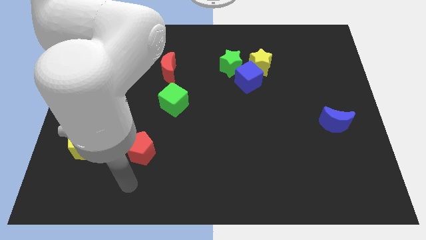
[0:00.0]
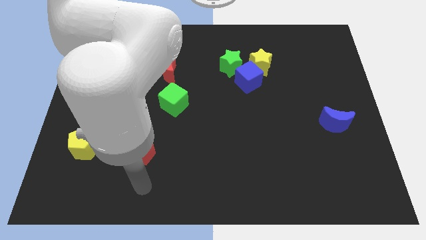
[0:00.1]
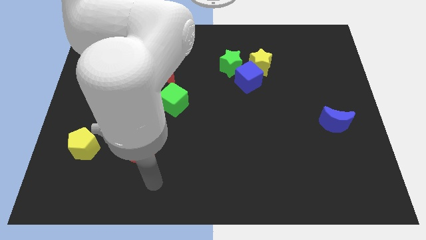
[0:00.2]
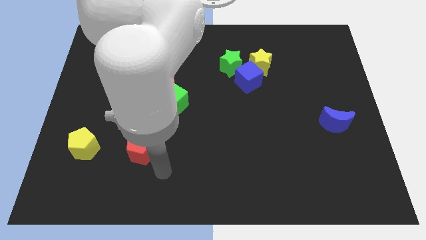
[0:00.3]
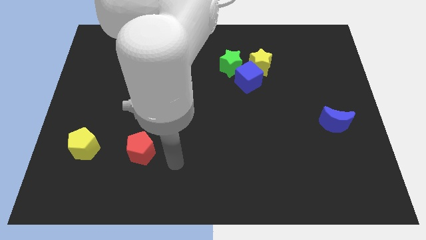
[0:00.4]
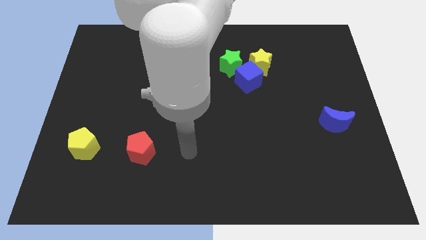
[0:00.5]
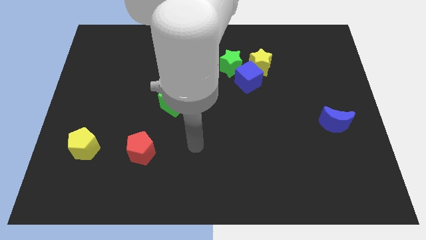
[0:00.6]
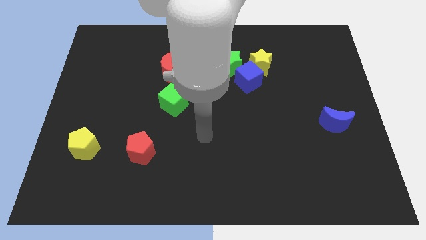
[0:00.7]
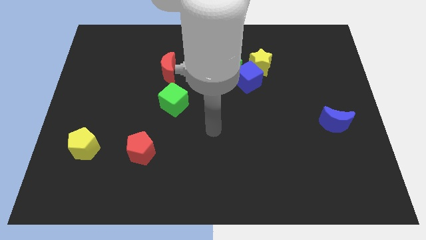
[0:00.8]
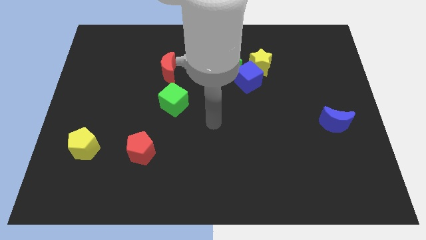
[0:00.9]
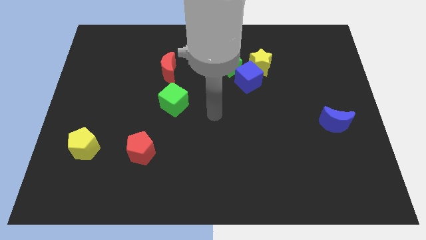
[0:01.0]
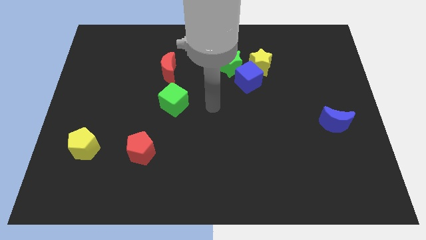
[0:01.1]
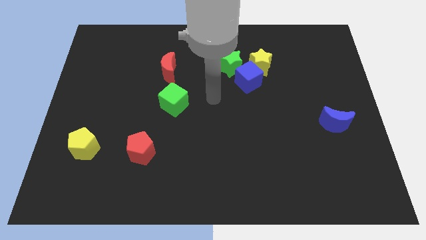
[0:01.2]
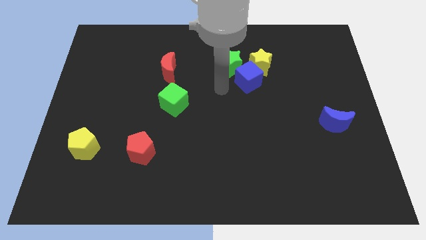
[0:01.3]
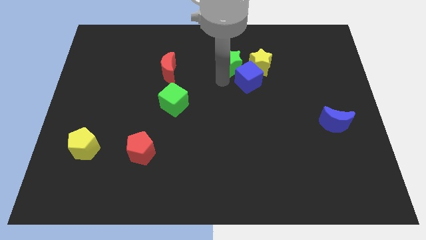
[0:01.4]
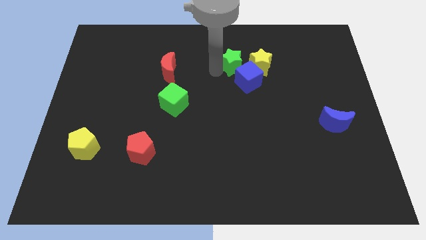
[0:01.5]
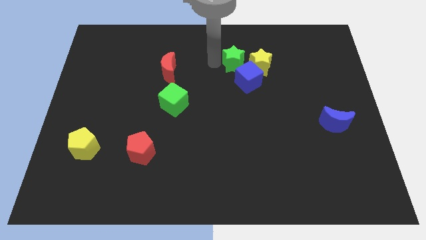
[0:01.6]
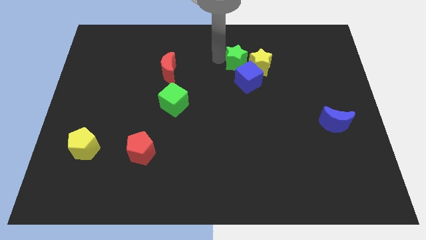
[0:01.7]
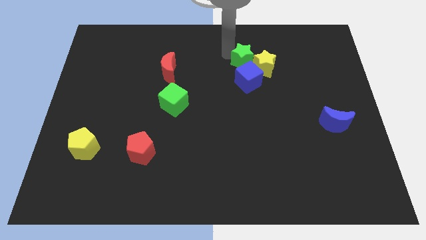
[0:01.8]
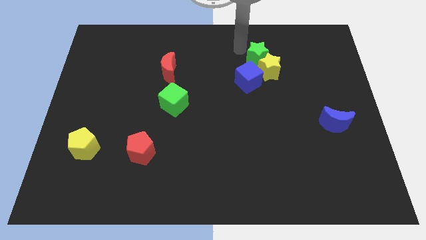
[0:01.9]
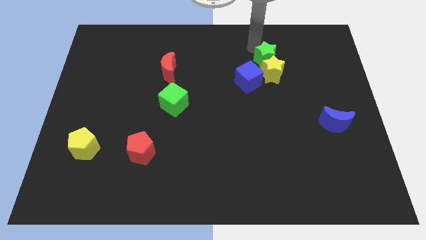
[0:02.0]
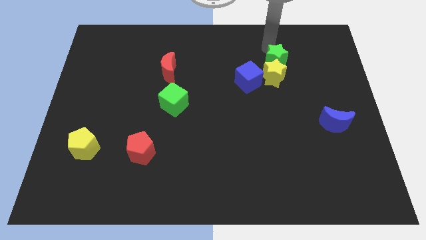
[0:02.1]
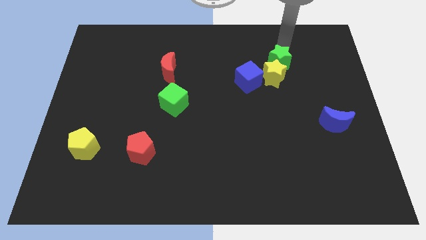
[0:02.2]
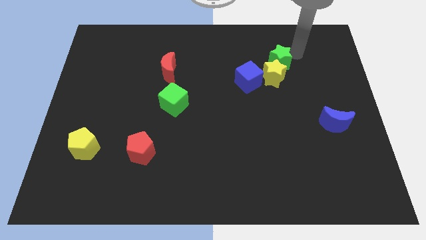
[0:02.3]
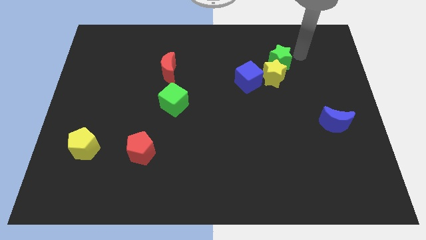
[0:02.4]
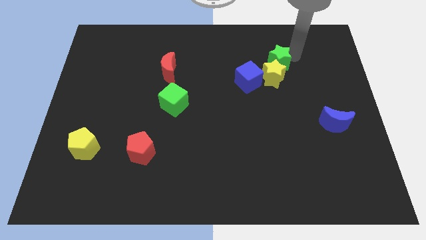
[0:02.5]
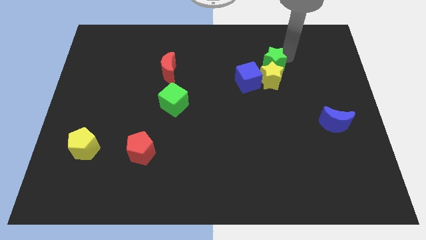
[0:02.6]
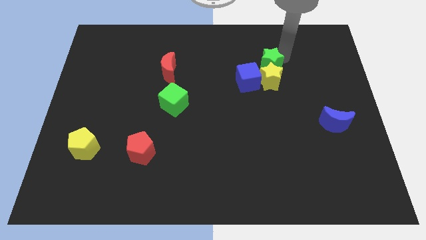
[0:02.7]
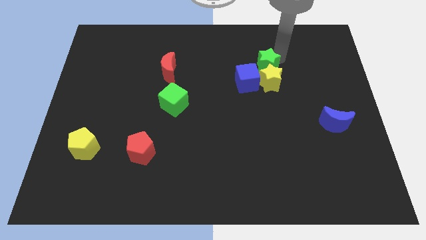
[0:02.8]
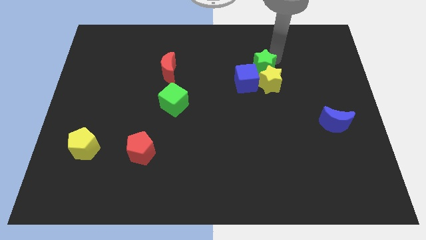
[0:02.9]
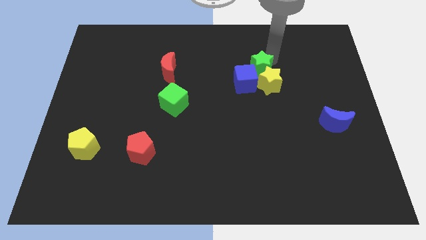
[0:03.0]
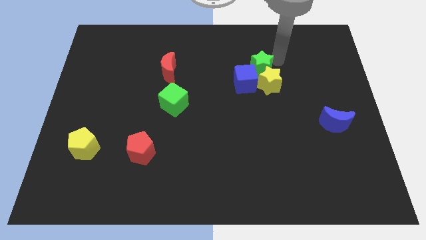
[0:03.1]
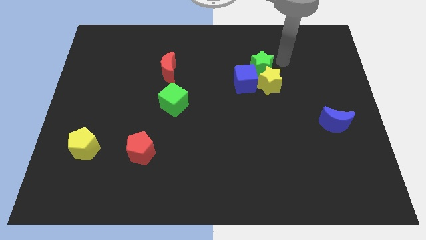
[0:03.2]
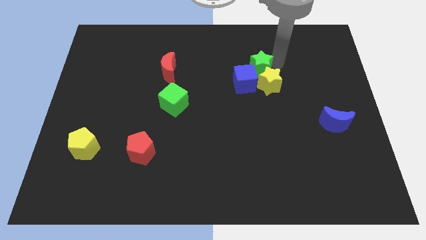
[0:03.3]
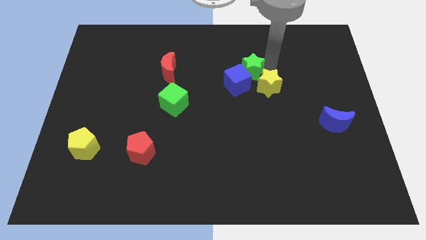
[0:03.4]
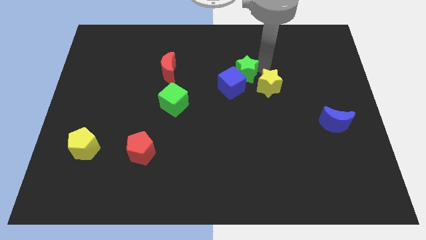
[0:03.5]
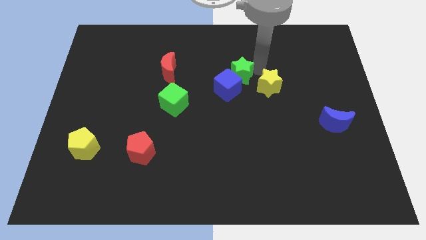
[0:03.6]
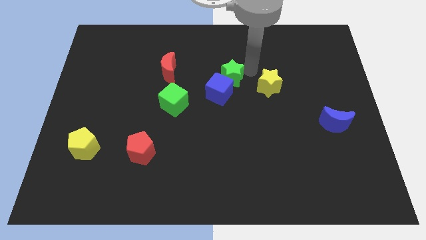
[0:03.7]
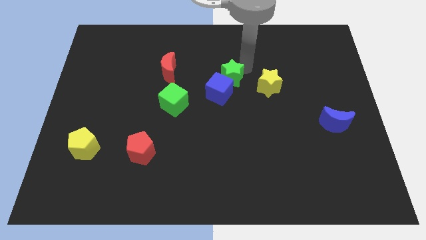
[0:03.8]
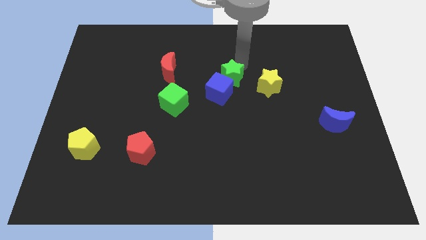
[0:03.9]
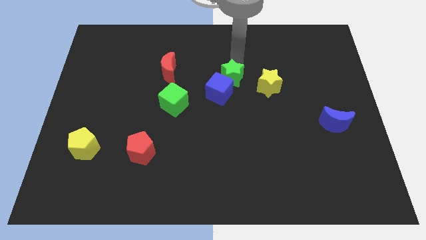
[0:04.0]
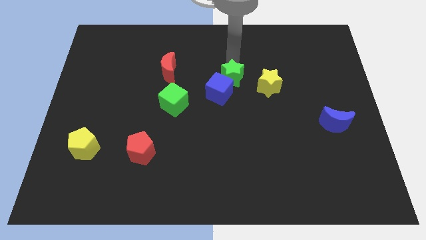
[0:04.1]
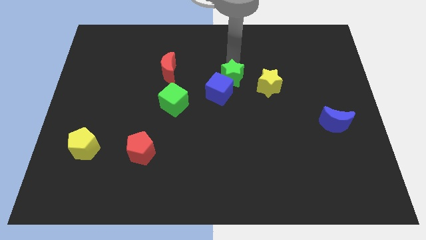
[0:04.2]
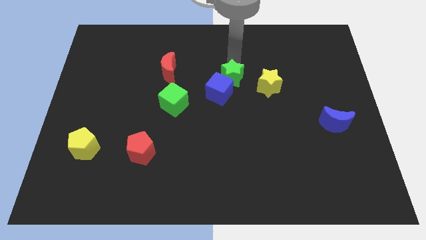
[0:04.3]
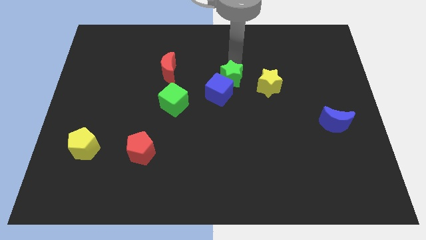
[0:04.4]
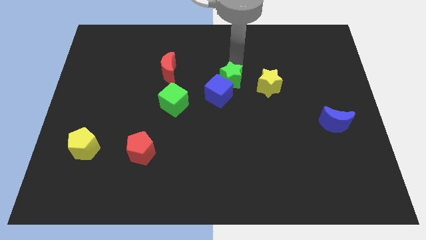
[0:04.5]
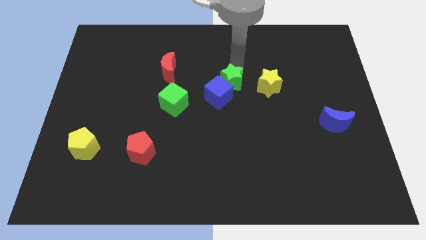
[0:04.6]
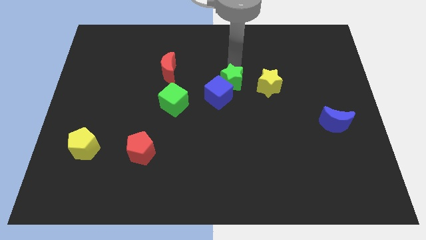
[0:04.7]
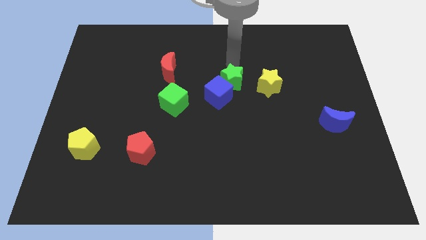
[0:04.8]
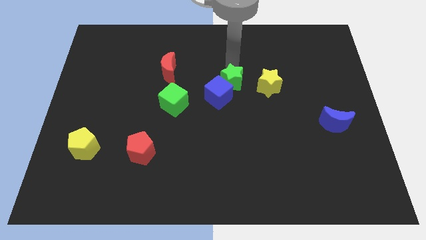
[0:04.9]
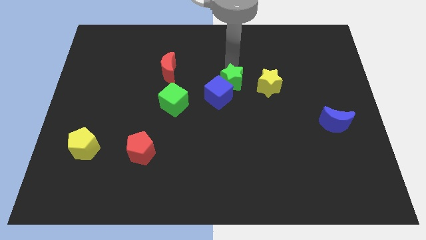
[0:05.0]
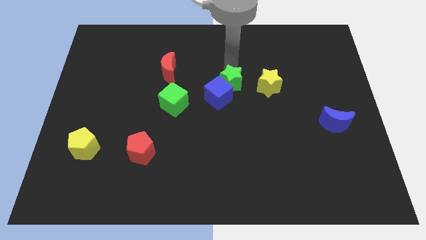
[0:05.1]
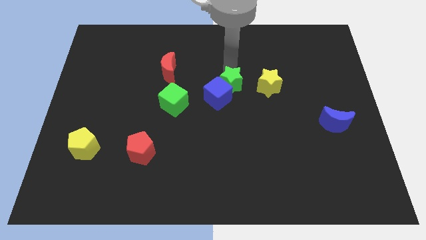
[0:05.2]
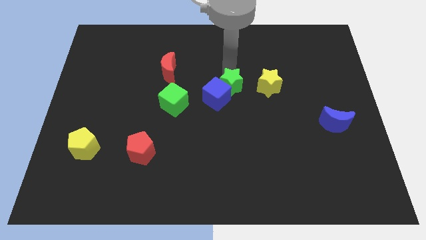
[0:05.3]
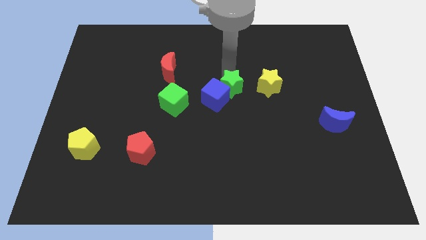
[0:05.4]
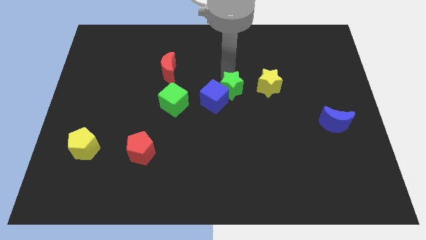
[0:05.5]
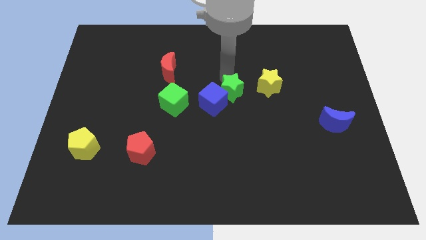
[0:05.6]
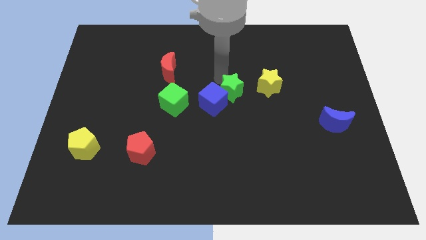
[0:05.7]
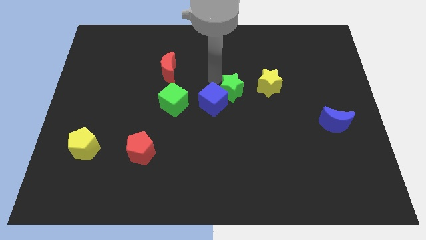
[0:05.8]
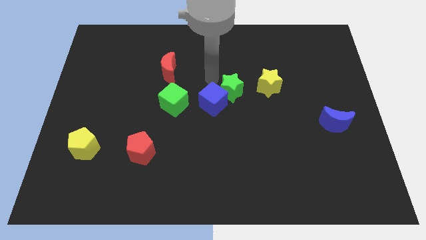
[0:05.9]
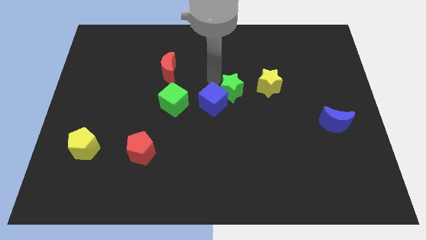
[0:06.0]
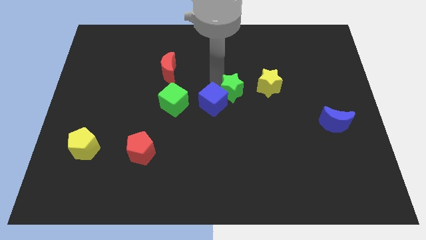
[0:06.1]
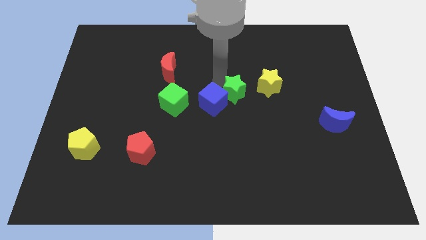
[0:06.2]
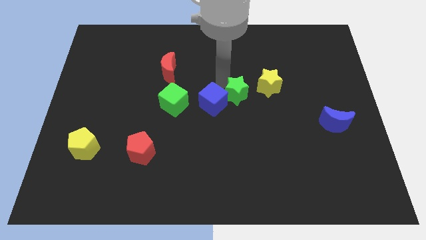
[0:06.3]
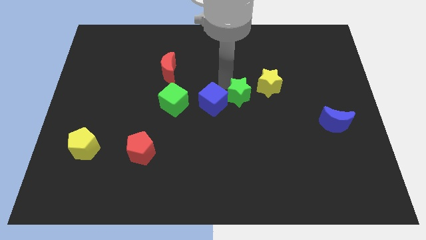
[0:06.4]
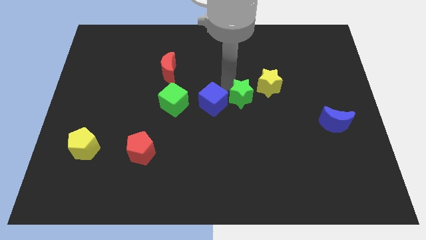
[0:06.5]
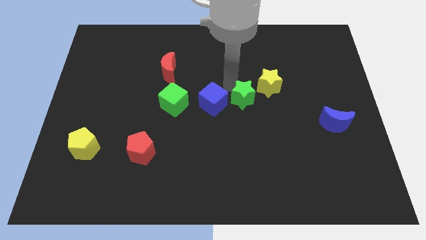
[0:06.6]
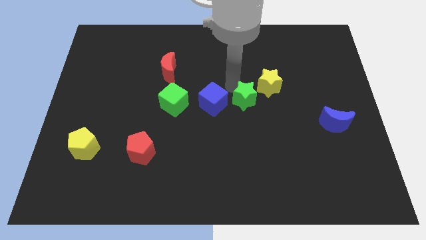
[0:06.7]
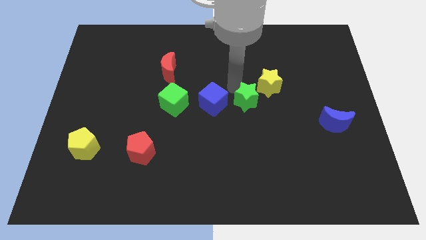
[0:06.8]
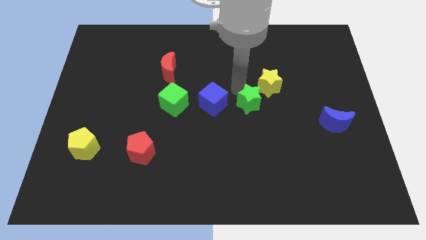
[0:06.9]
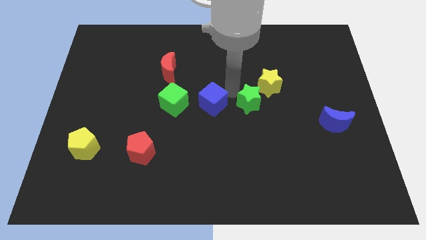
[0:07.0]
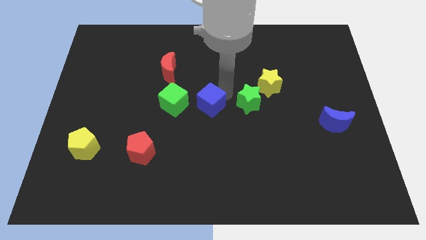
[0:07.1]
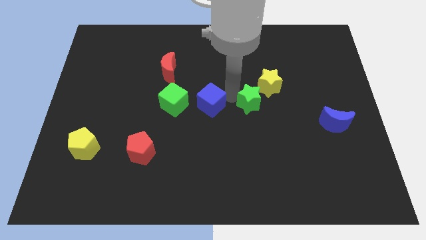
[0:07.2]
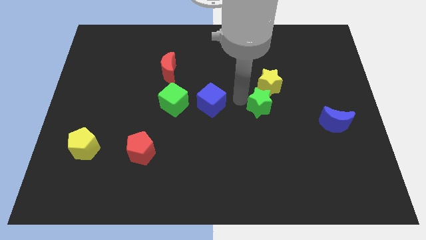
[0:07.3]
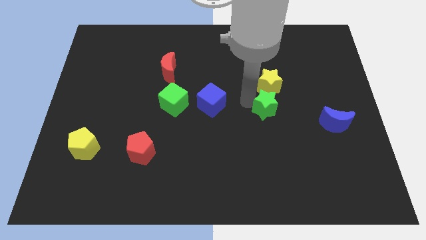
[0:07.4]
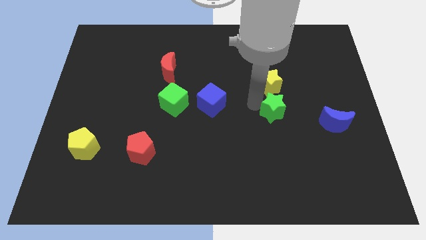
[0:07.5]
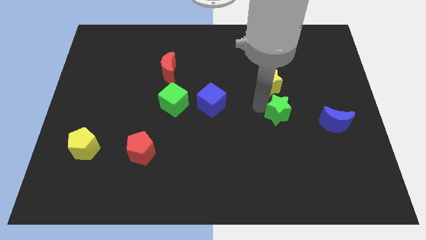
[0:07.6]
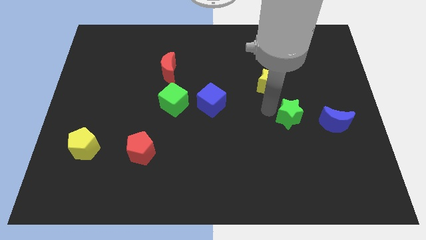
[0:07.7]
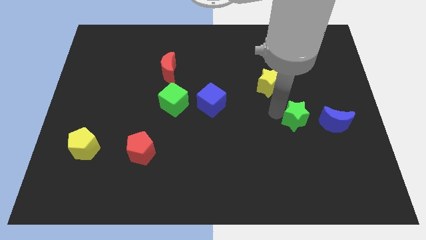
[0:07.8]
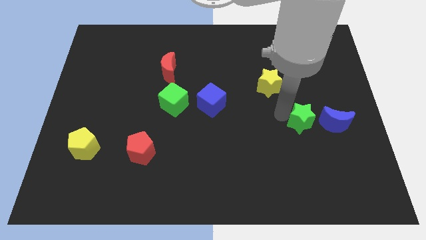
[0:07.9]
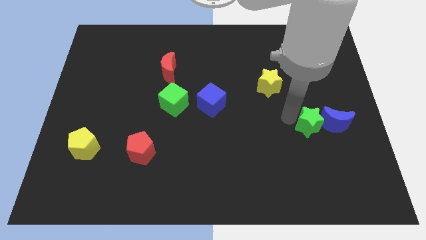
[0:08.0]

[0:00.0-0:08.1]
slide the green star close to the blue moon

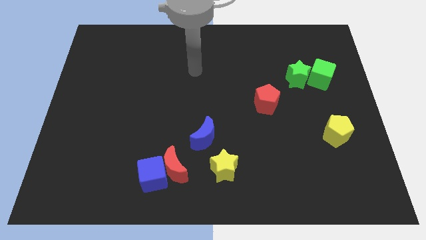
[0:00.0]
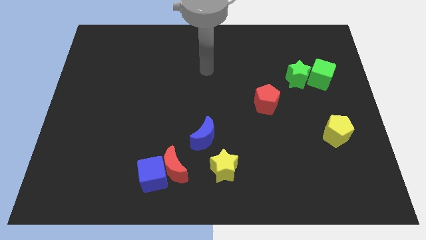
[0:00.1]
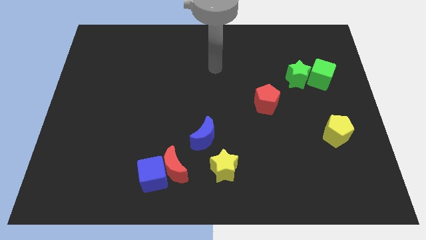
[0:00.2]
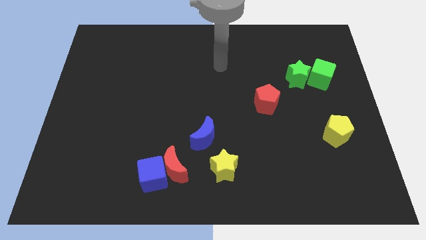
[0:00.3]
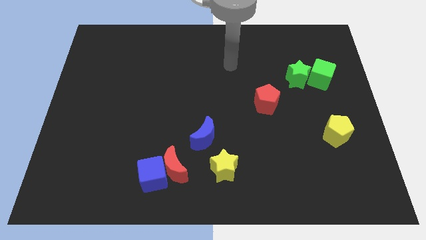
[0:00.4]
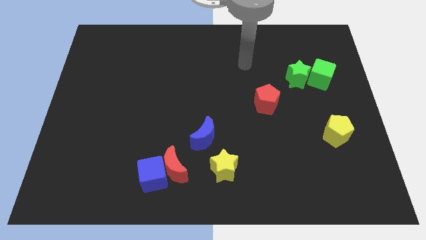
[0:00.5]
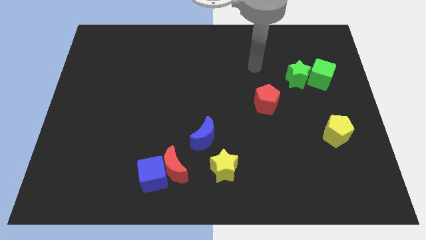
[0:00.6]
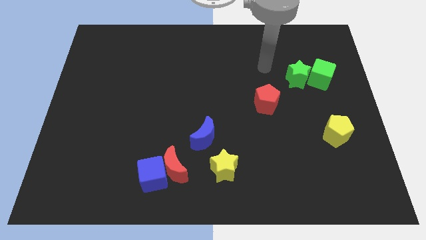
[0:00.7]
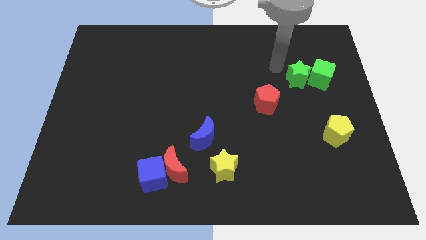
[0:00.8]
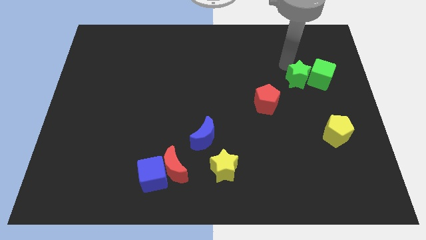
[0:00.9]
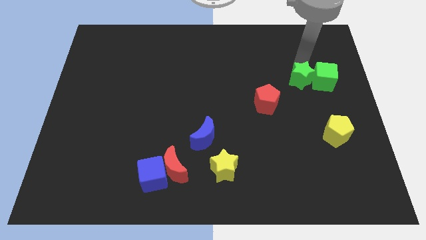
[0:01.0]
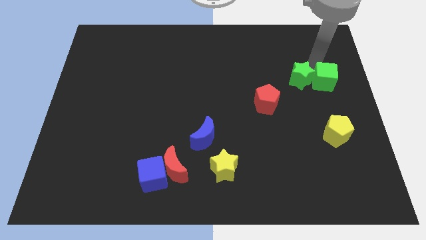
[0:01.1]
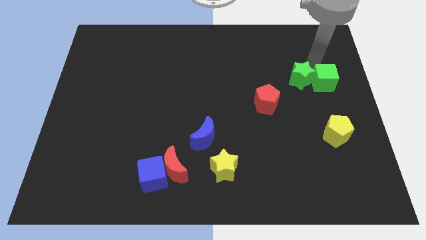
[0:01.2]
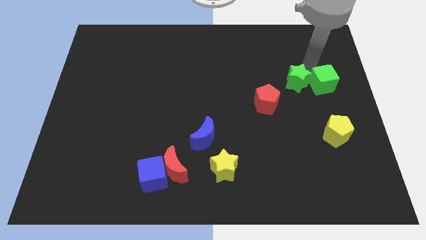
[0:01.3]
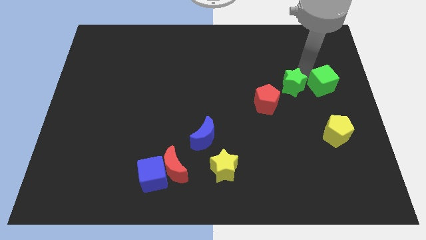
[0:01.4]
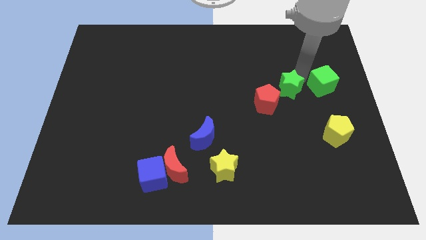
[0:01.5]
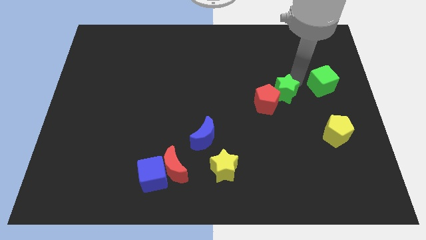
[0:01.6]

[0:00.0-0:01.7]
put the green star towards the red pentagon
